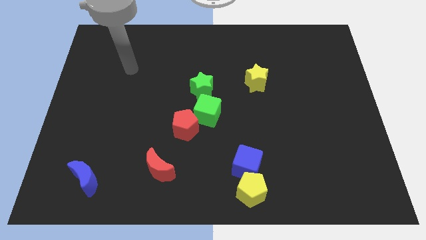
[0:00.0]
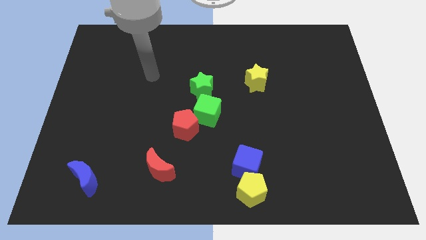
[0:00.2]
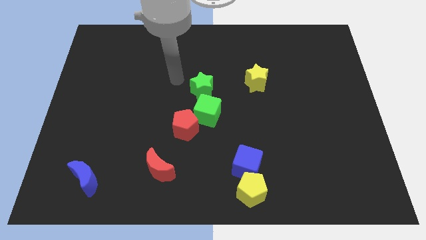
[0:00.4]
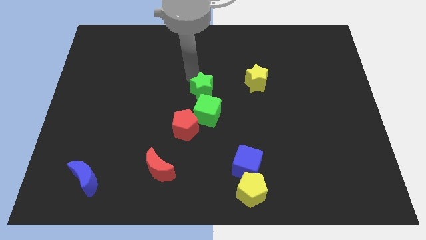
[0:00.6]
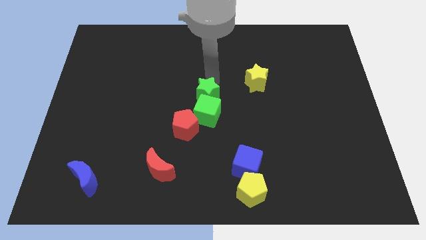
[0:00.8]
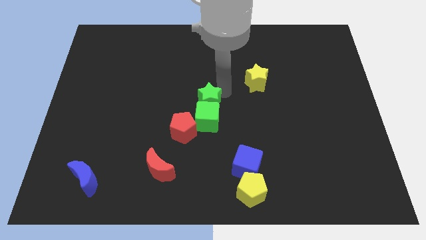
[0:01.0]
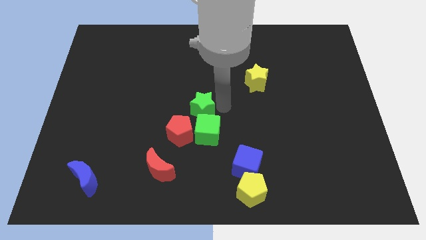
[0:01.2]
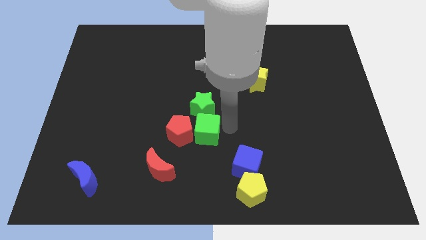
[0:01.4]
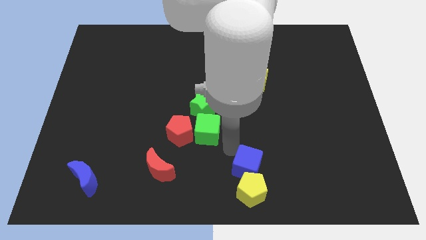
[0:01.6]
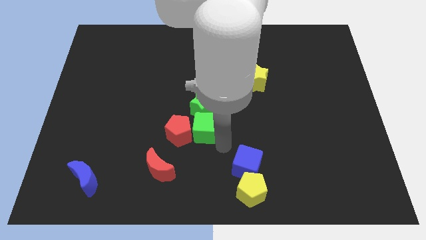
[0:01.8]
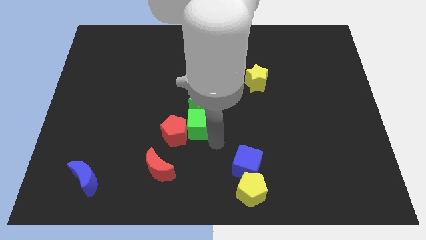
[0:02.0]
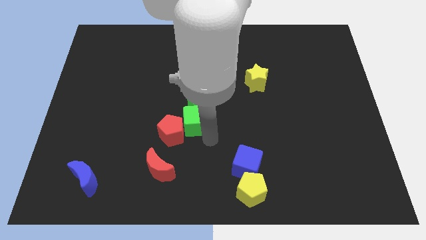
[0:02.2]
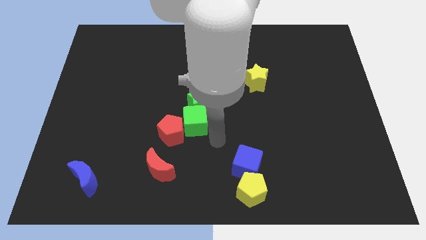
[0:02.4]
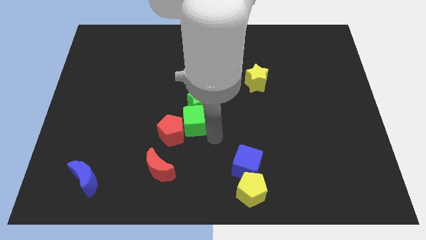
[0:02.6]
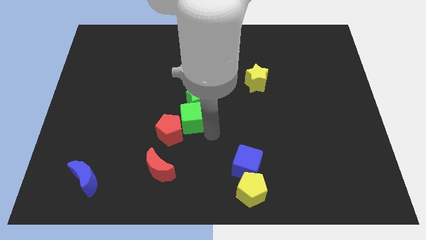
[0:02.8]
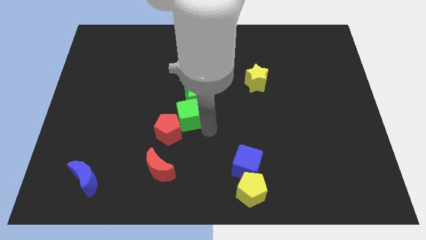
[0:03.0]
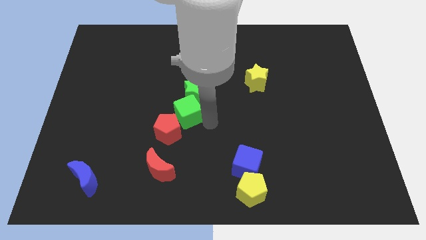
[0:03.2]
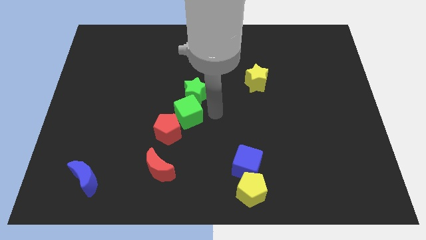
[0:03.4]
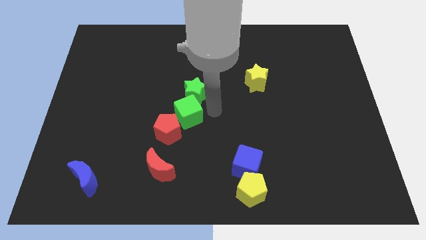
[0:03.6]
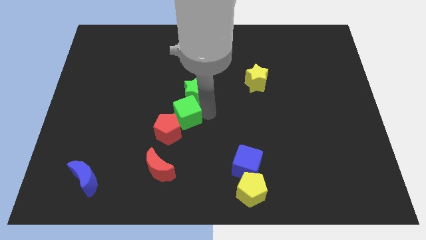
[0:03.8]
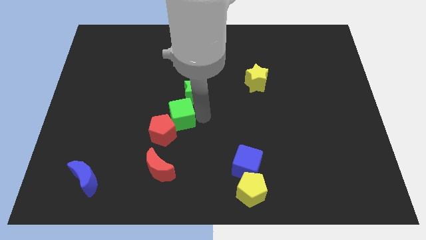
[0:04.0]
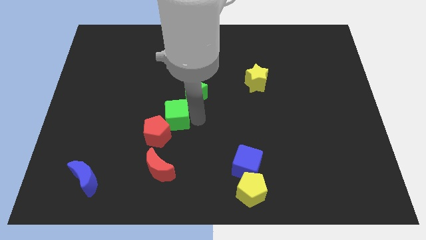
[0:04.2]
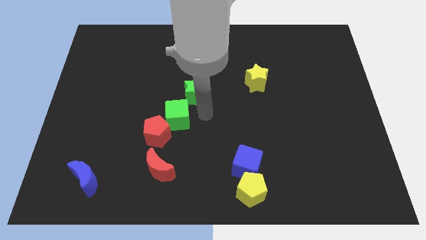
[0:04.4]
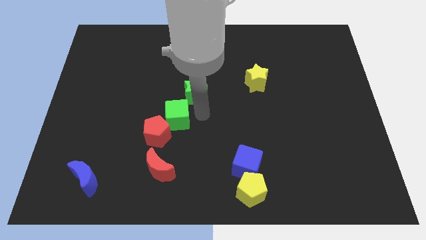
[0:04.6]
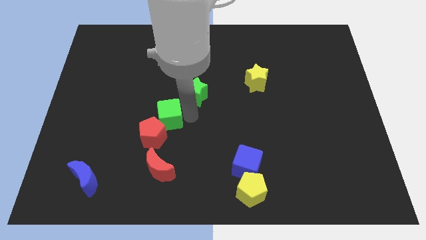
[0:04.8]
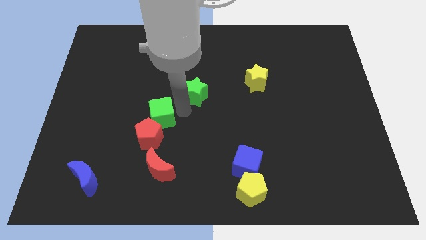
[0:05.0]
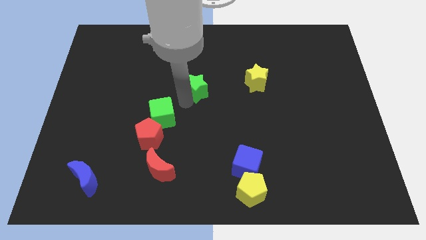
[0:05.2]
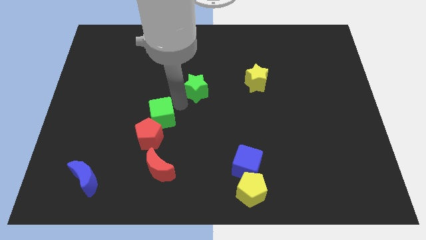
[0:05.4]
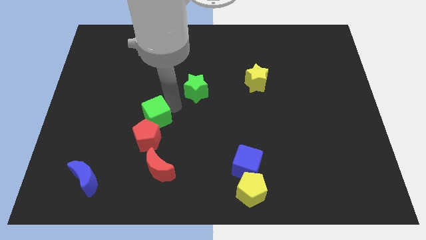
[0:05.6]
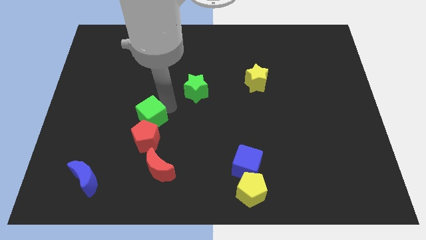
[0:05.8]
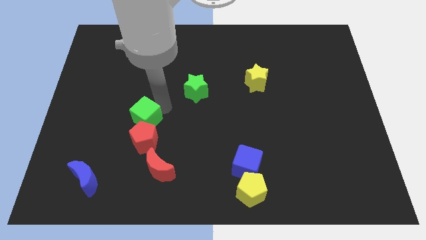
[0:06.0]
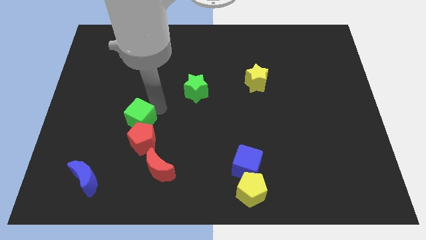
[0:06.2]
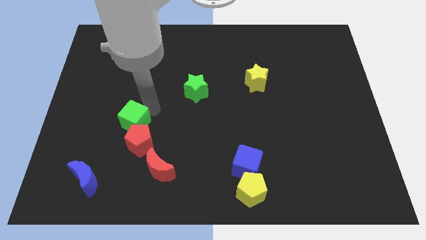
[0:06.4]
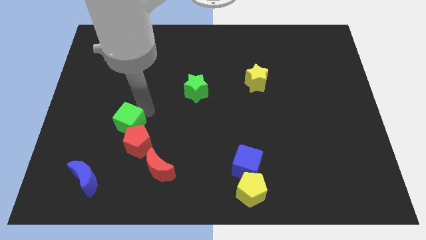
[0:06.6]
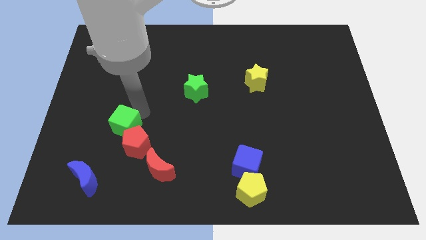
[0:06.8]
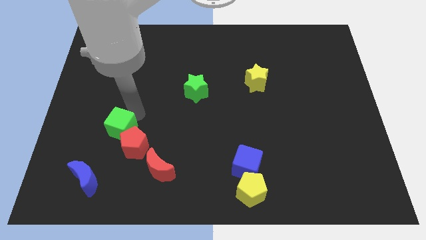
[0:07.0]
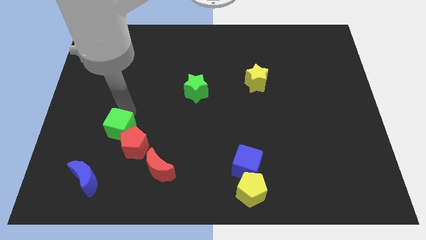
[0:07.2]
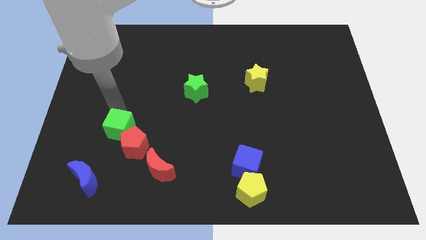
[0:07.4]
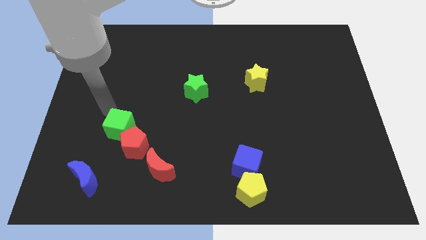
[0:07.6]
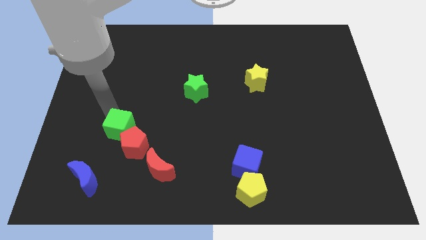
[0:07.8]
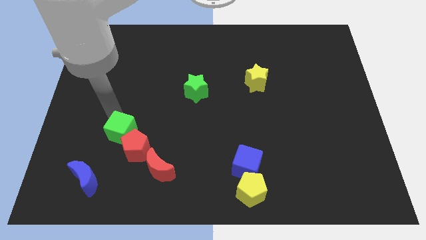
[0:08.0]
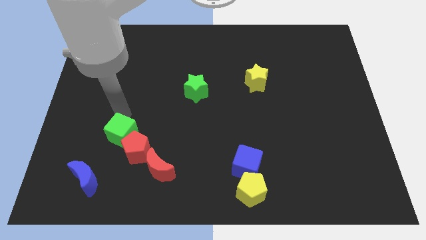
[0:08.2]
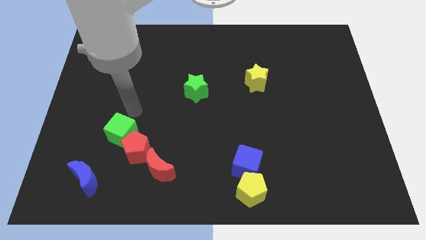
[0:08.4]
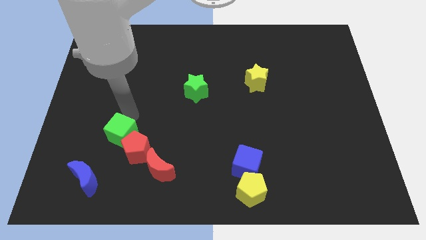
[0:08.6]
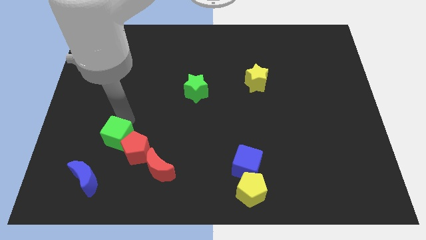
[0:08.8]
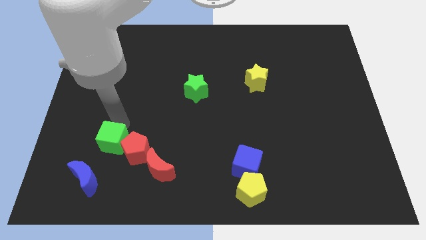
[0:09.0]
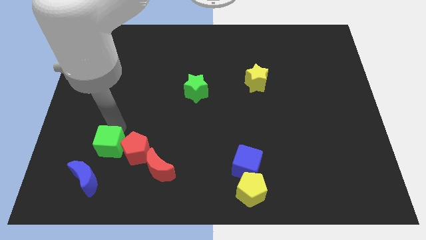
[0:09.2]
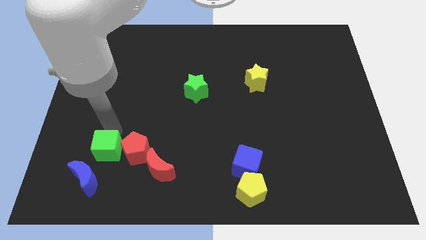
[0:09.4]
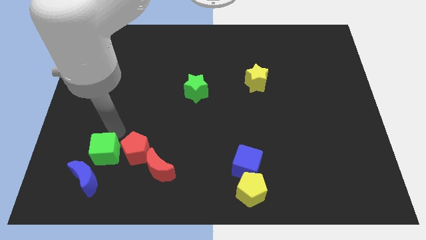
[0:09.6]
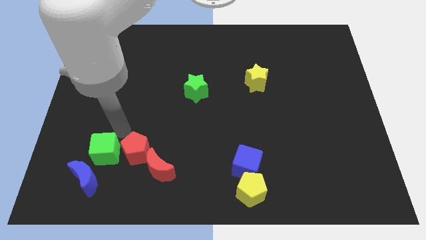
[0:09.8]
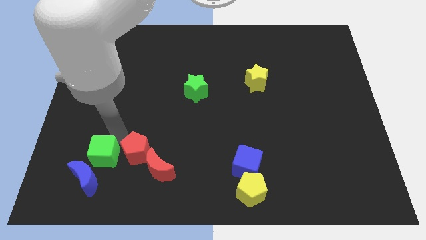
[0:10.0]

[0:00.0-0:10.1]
push the green cube towards the blue moon

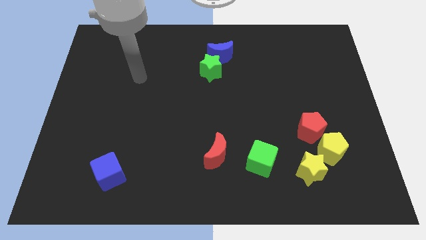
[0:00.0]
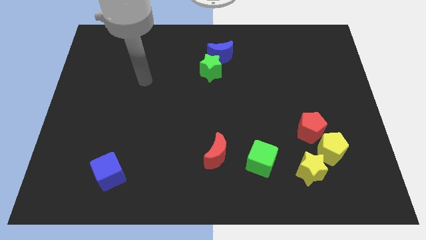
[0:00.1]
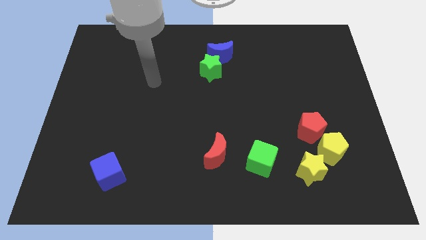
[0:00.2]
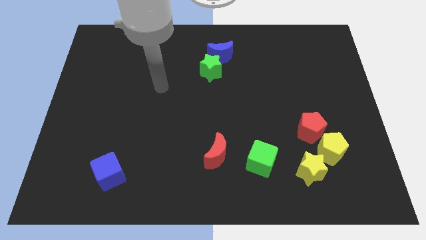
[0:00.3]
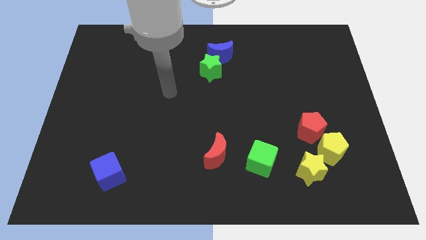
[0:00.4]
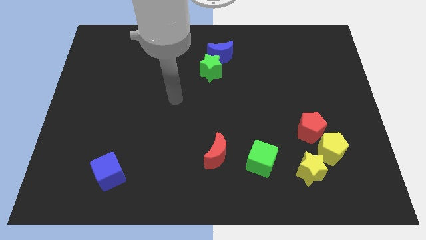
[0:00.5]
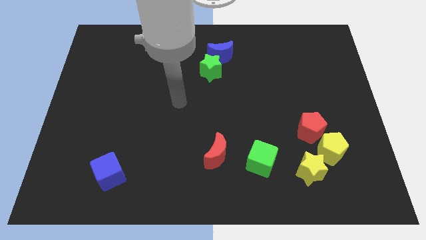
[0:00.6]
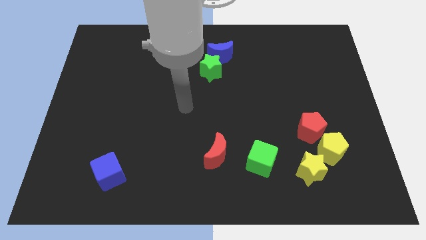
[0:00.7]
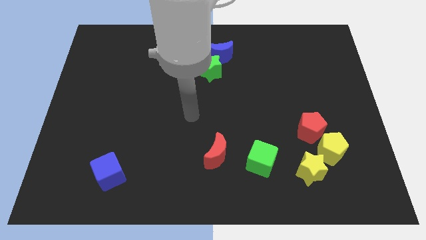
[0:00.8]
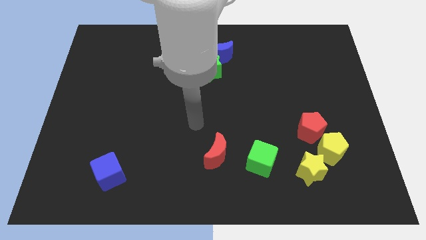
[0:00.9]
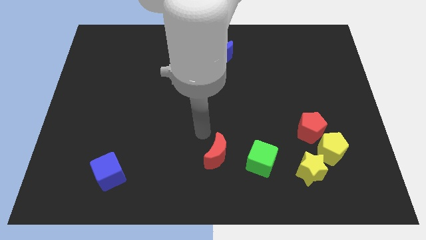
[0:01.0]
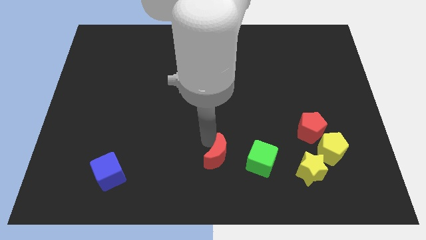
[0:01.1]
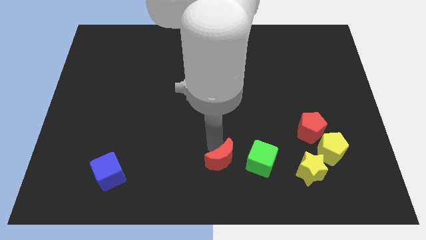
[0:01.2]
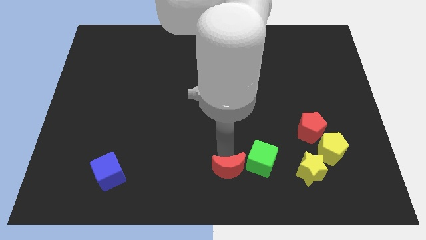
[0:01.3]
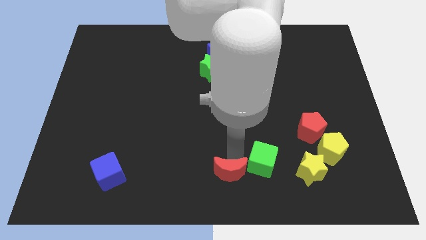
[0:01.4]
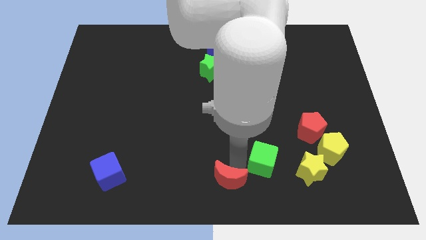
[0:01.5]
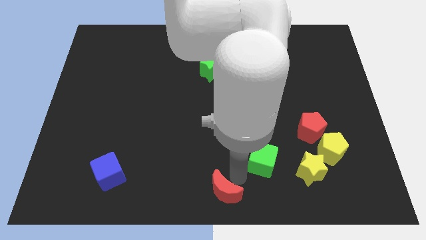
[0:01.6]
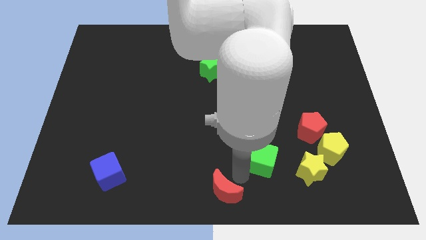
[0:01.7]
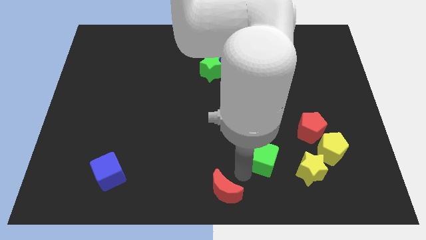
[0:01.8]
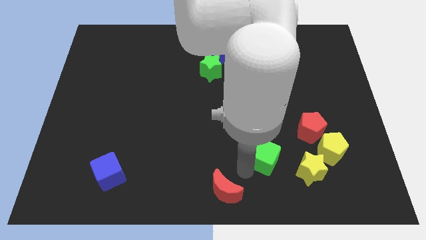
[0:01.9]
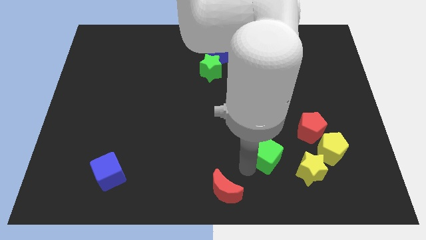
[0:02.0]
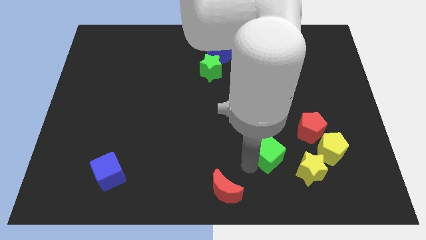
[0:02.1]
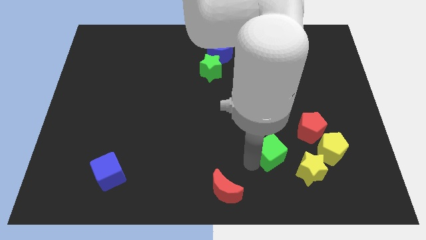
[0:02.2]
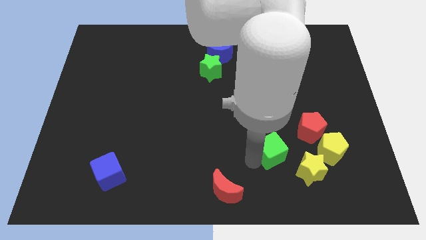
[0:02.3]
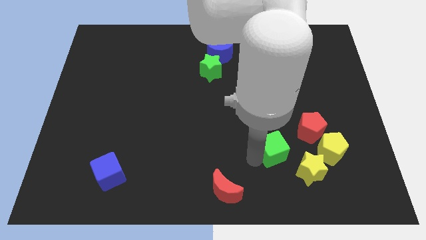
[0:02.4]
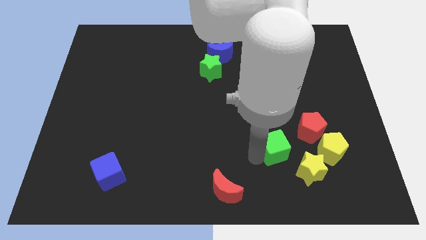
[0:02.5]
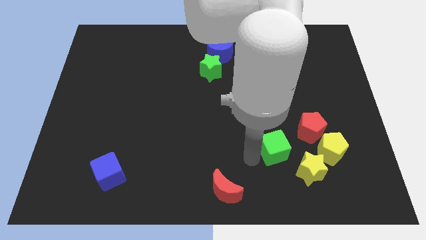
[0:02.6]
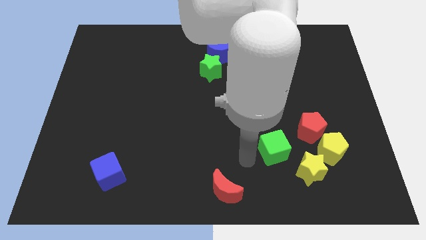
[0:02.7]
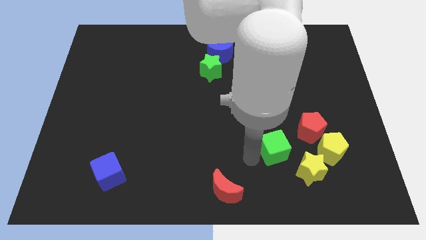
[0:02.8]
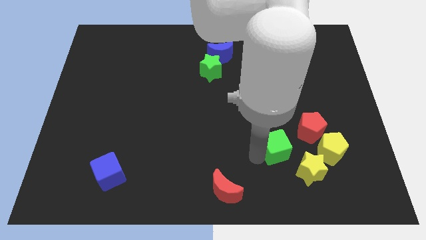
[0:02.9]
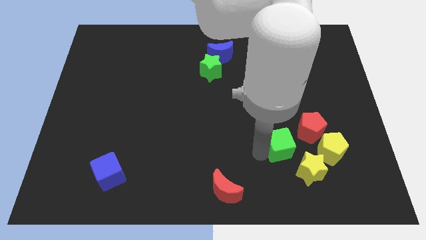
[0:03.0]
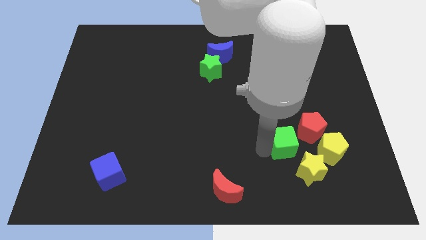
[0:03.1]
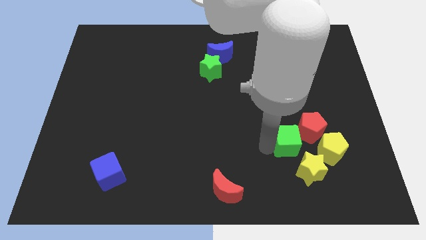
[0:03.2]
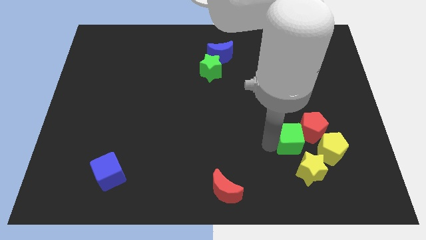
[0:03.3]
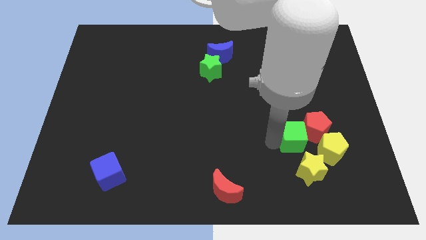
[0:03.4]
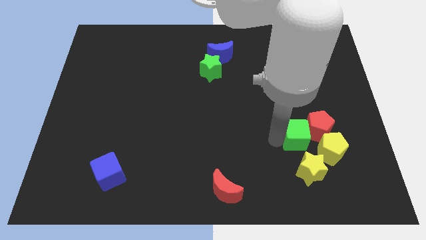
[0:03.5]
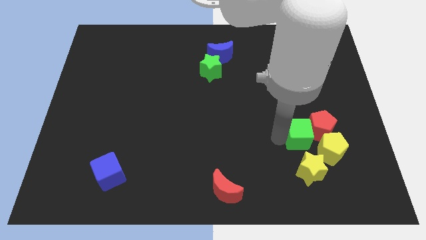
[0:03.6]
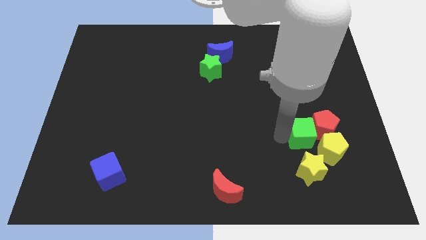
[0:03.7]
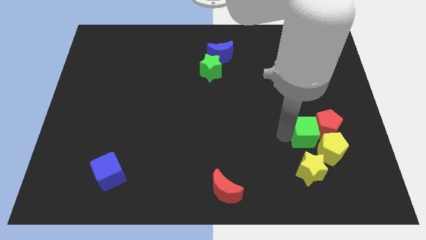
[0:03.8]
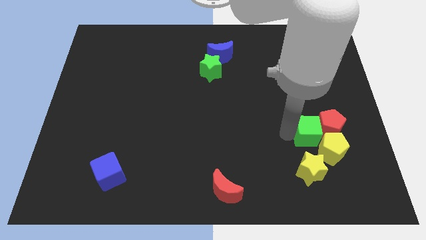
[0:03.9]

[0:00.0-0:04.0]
move the green cube to the yellow pentagon
